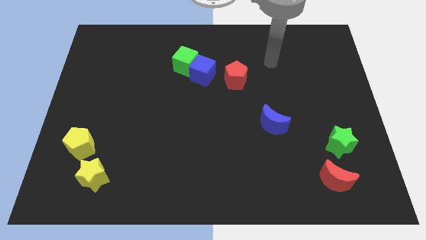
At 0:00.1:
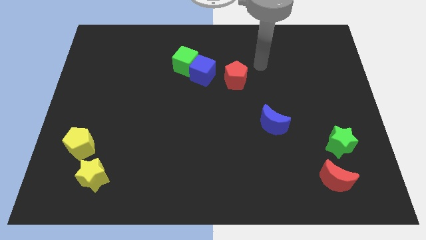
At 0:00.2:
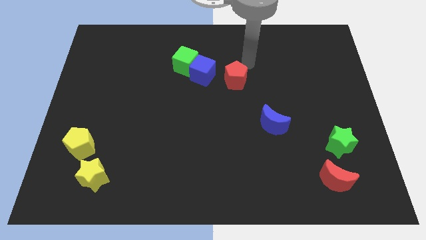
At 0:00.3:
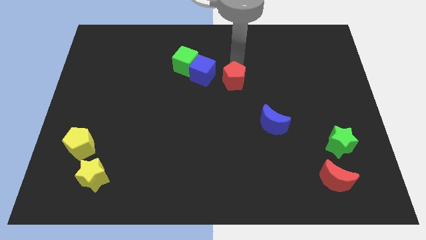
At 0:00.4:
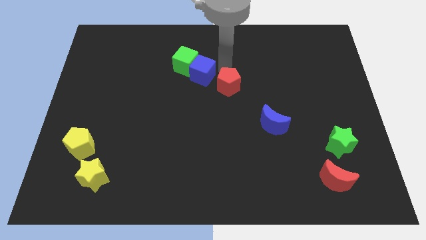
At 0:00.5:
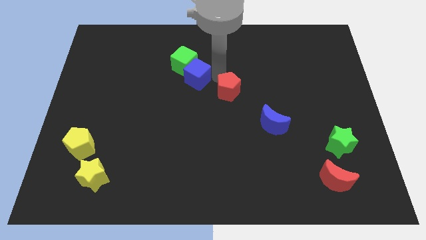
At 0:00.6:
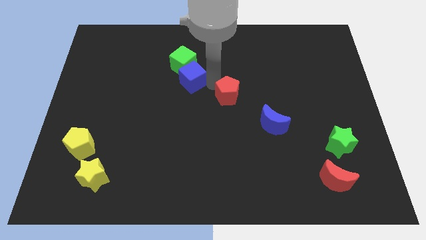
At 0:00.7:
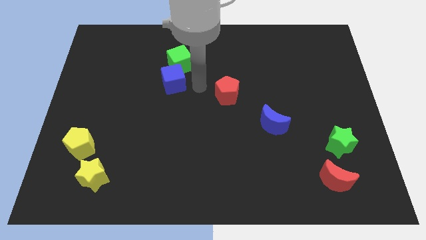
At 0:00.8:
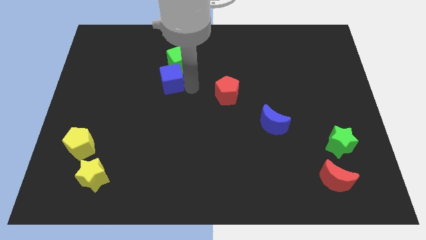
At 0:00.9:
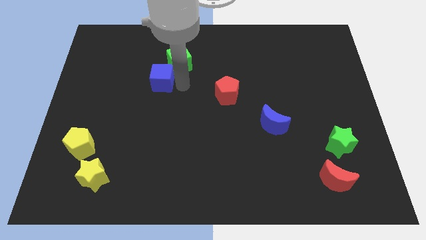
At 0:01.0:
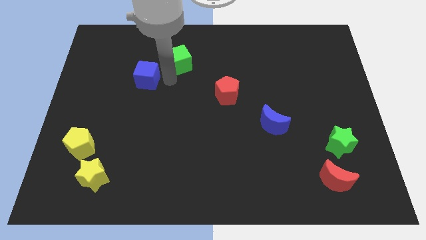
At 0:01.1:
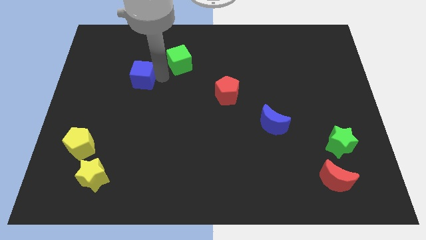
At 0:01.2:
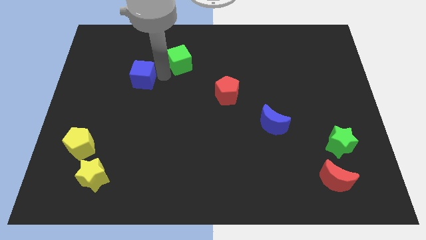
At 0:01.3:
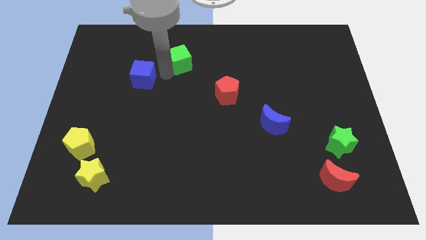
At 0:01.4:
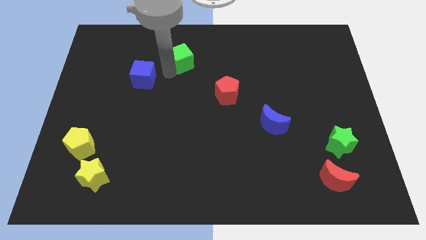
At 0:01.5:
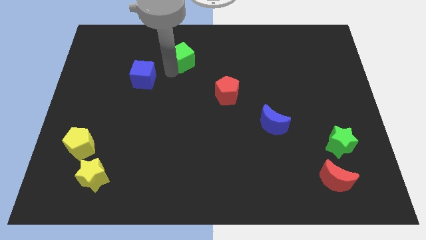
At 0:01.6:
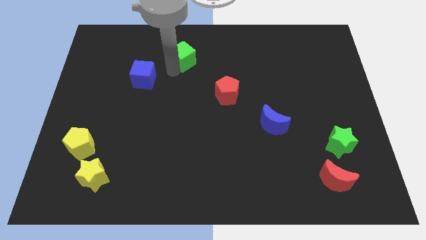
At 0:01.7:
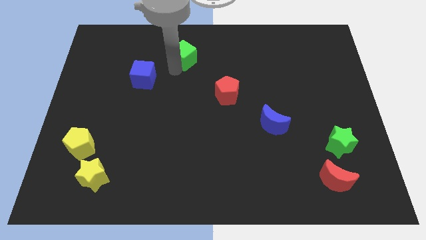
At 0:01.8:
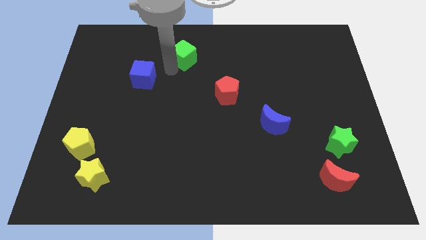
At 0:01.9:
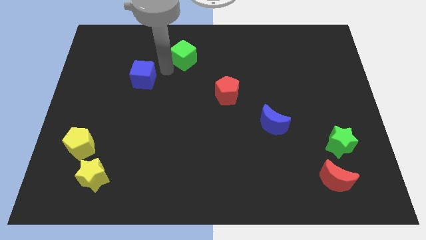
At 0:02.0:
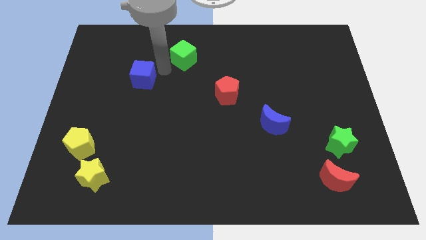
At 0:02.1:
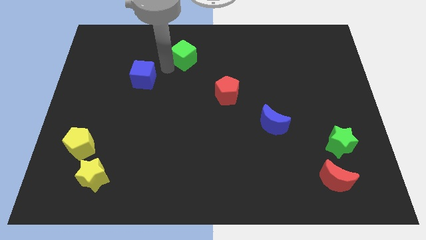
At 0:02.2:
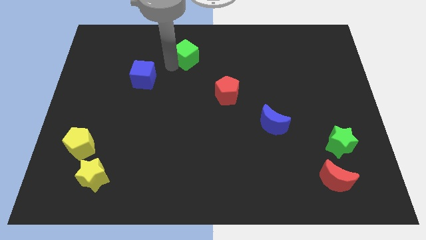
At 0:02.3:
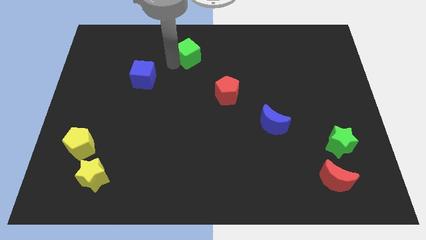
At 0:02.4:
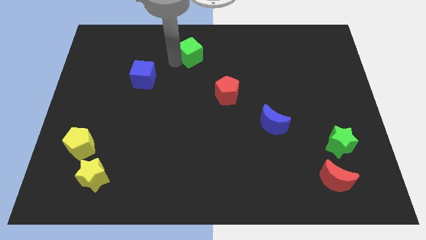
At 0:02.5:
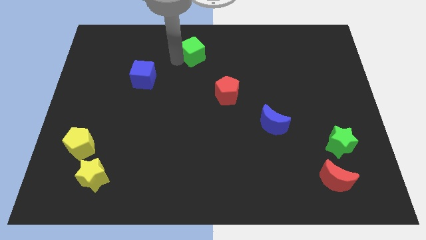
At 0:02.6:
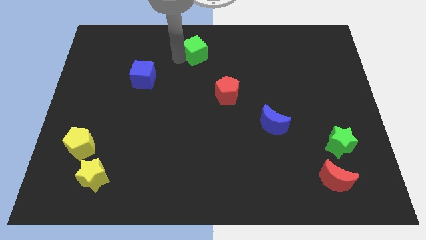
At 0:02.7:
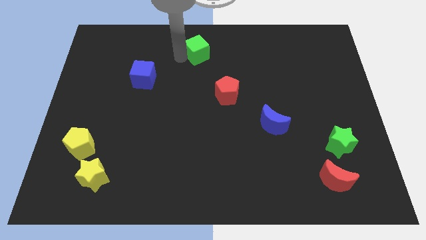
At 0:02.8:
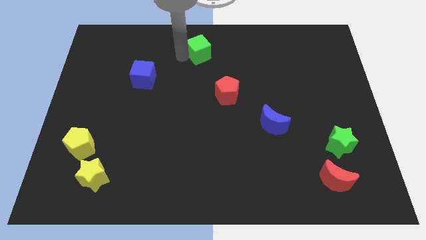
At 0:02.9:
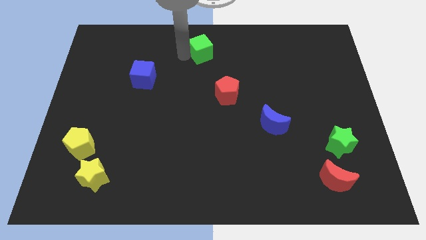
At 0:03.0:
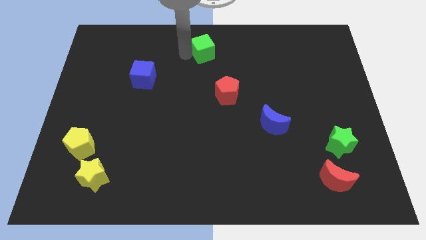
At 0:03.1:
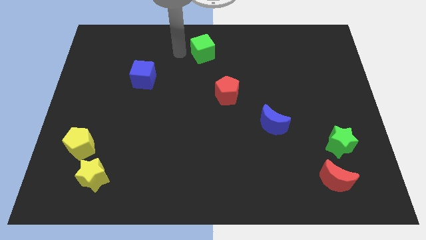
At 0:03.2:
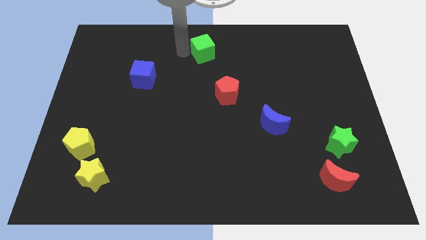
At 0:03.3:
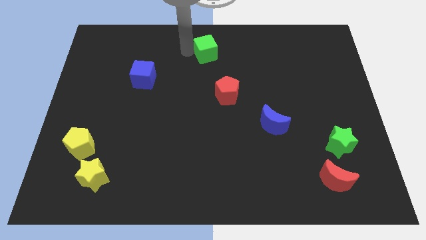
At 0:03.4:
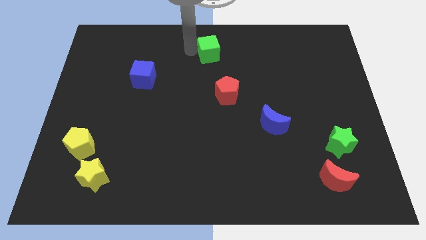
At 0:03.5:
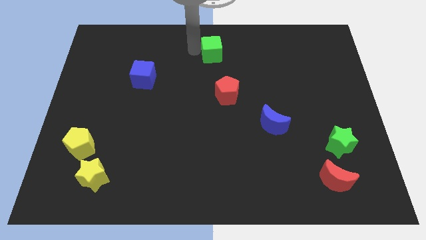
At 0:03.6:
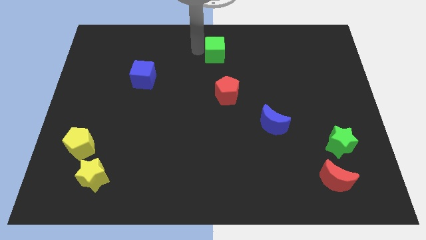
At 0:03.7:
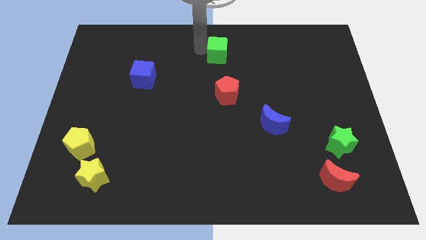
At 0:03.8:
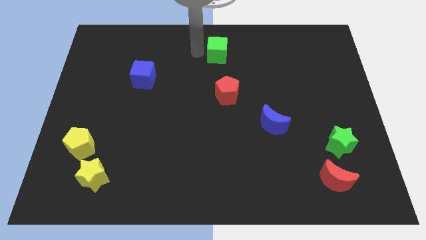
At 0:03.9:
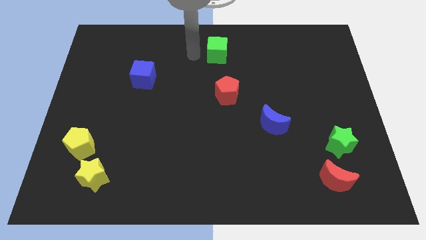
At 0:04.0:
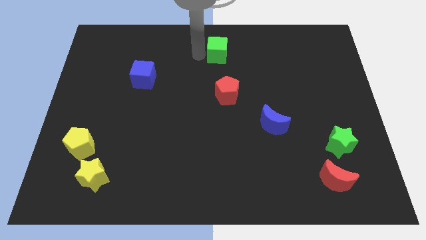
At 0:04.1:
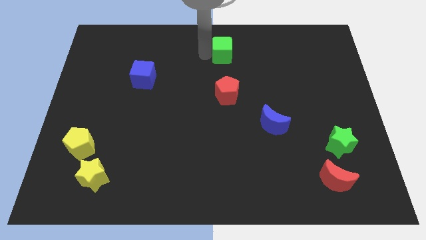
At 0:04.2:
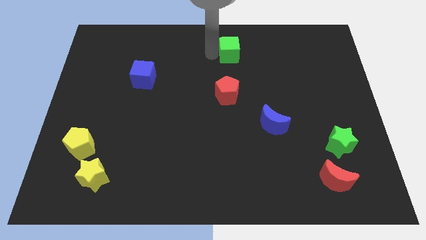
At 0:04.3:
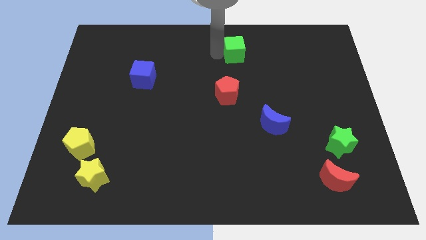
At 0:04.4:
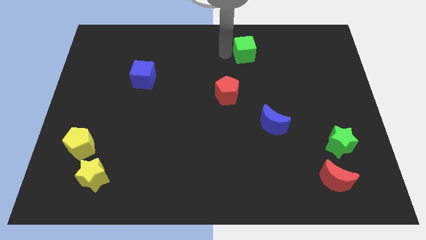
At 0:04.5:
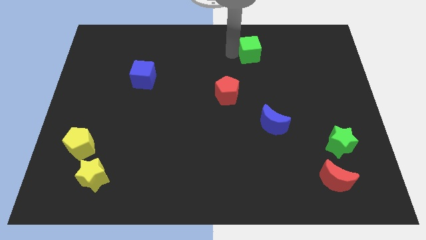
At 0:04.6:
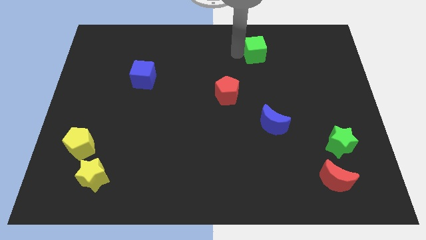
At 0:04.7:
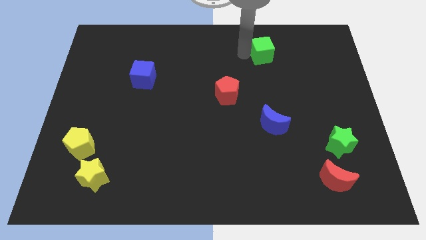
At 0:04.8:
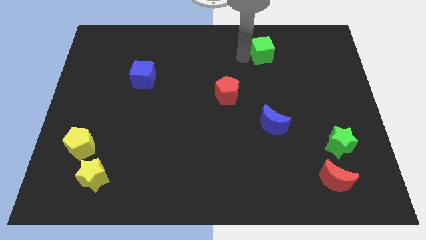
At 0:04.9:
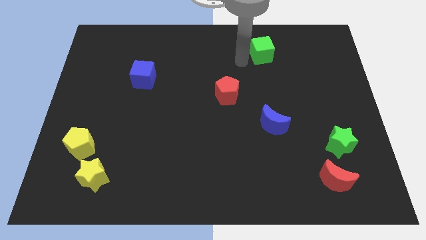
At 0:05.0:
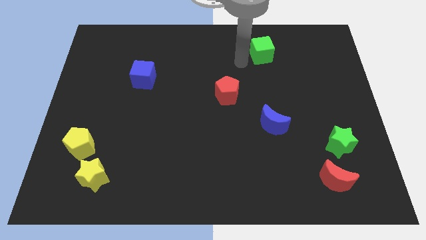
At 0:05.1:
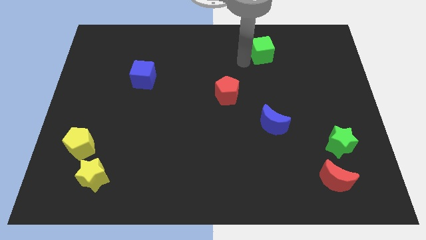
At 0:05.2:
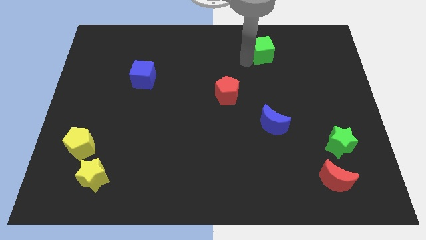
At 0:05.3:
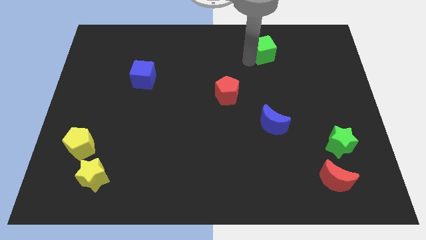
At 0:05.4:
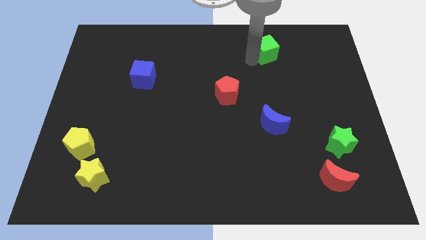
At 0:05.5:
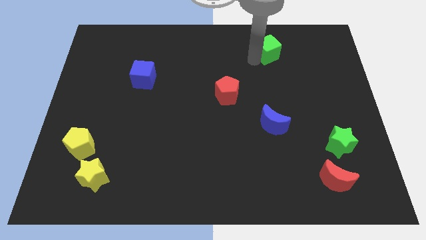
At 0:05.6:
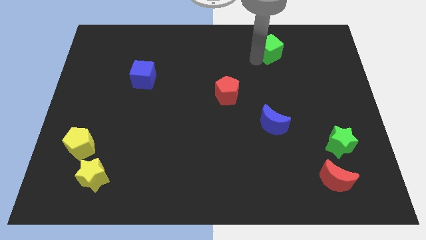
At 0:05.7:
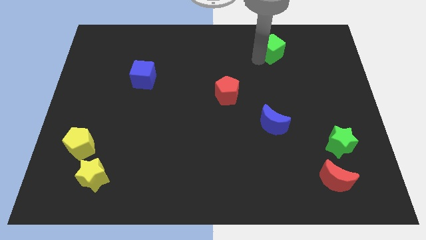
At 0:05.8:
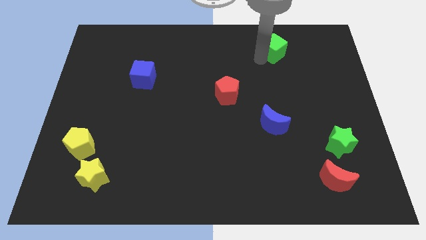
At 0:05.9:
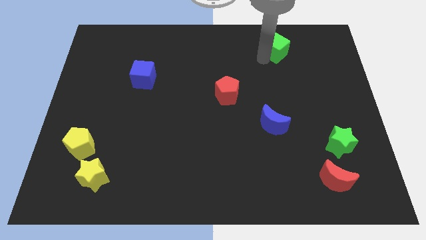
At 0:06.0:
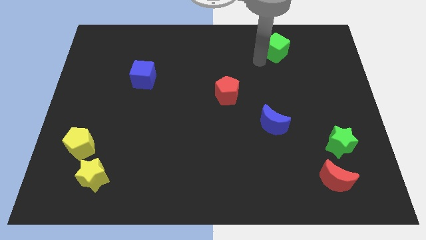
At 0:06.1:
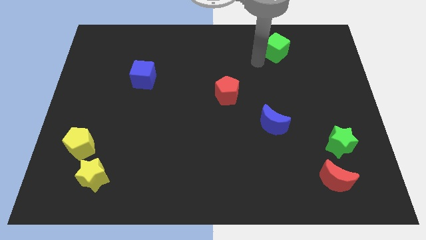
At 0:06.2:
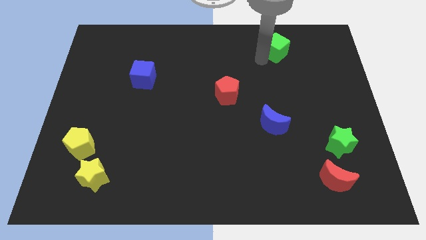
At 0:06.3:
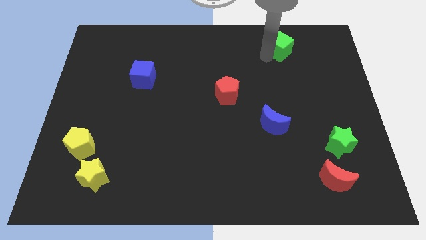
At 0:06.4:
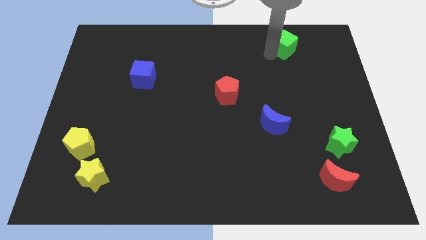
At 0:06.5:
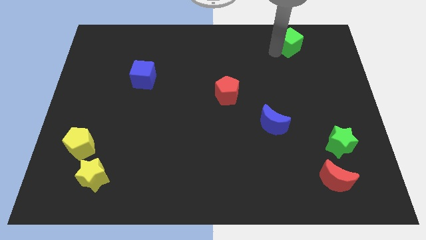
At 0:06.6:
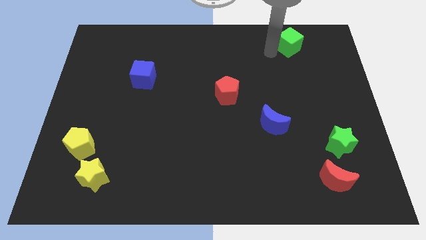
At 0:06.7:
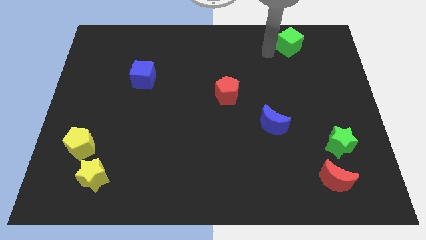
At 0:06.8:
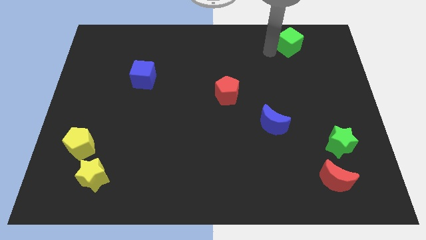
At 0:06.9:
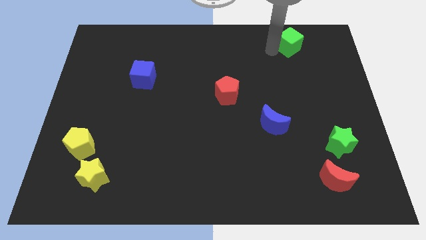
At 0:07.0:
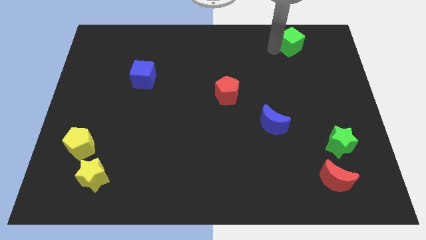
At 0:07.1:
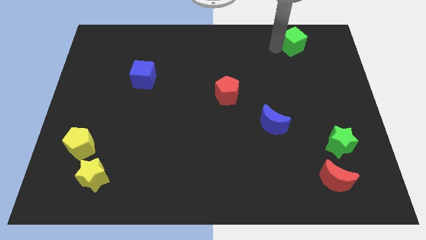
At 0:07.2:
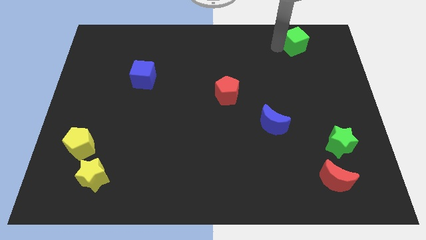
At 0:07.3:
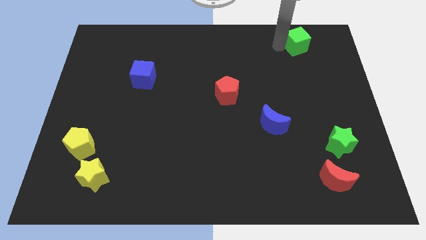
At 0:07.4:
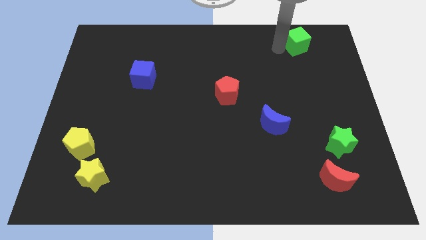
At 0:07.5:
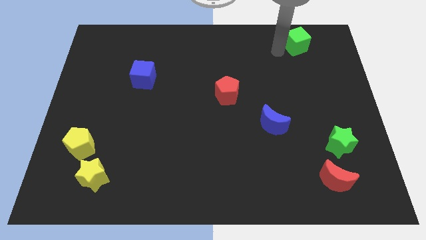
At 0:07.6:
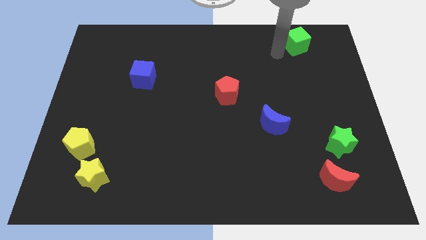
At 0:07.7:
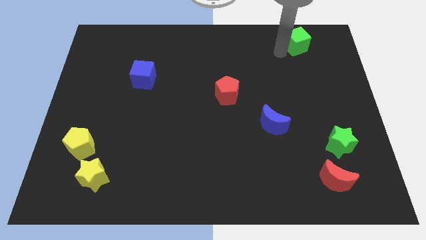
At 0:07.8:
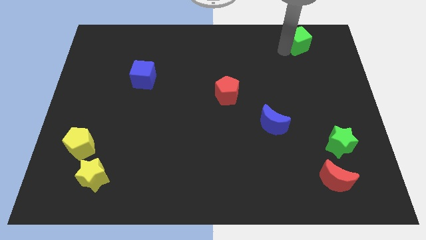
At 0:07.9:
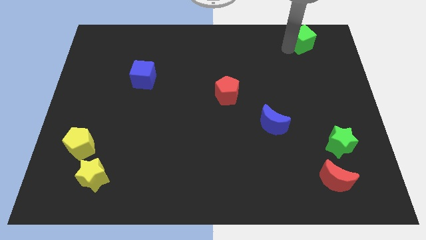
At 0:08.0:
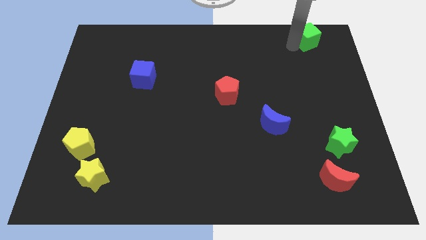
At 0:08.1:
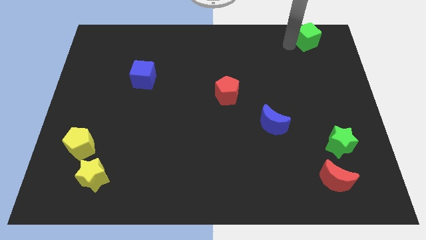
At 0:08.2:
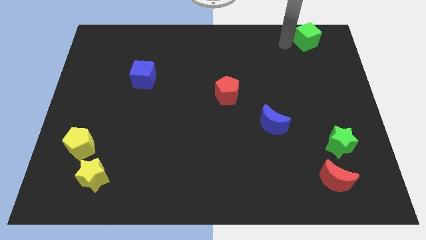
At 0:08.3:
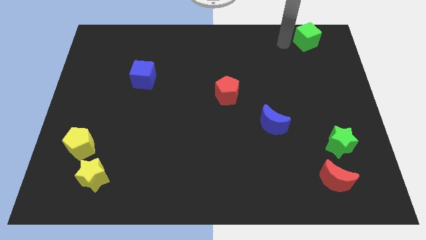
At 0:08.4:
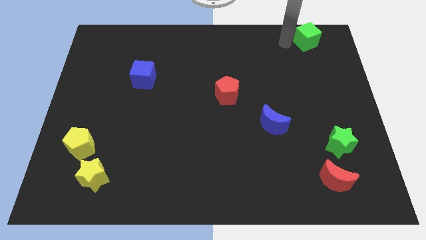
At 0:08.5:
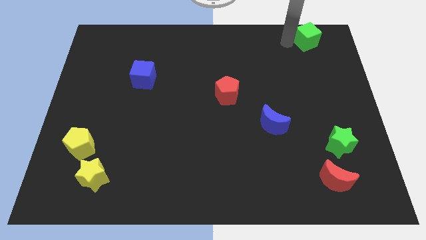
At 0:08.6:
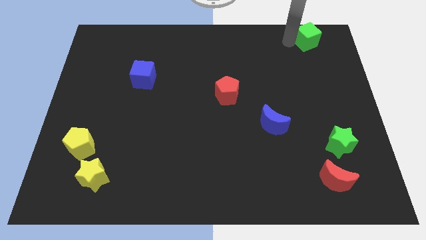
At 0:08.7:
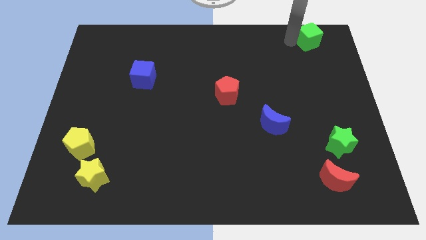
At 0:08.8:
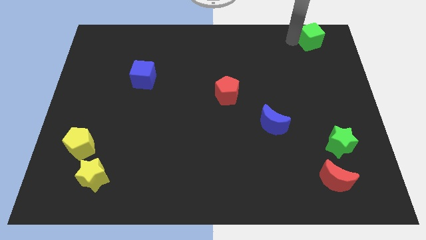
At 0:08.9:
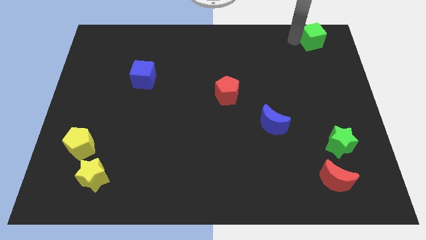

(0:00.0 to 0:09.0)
move the green cube to the upper right corner
